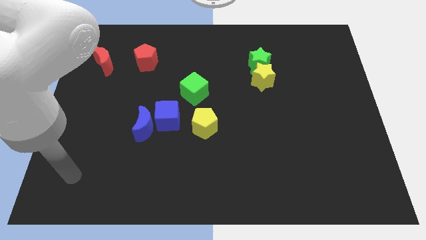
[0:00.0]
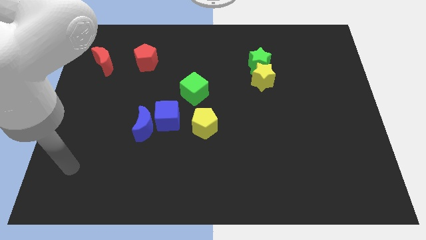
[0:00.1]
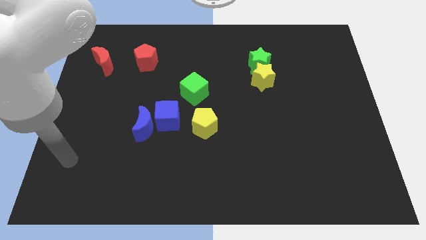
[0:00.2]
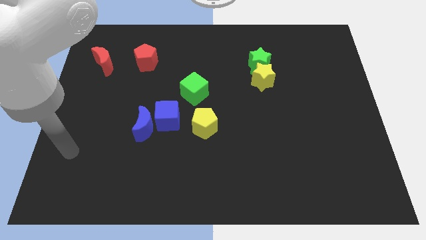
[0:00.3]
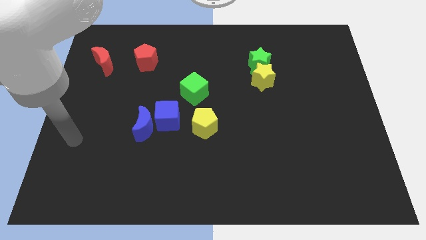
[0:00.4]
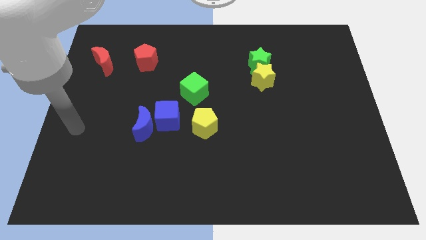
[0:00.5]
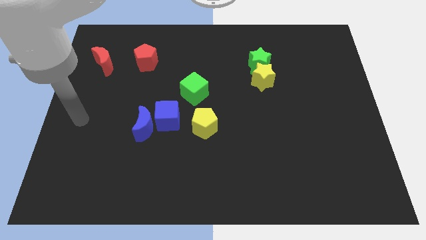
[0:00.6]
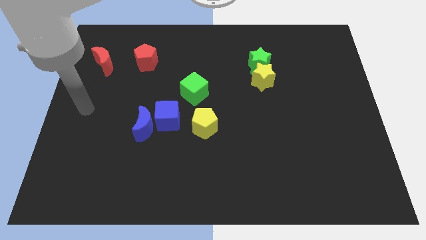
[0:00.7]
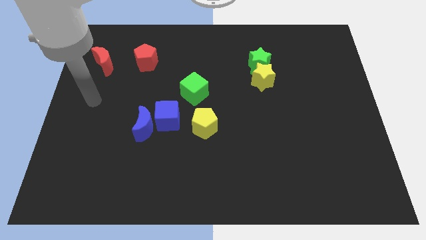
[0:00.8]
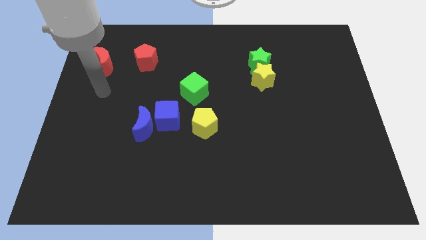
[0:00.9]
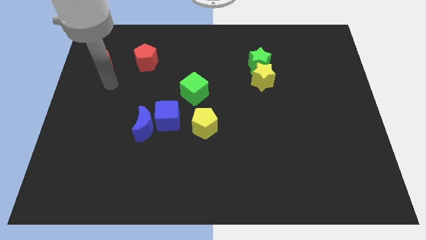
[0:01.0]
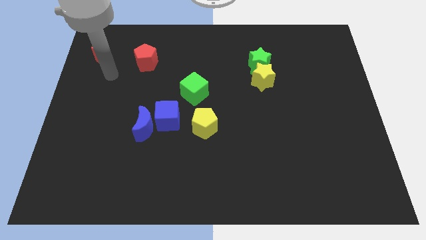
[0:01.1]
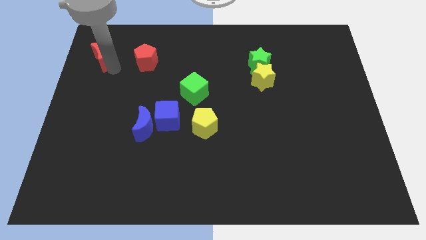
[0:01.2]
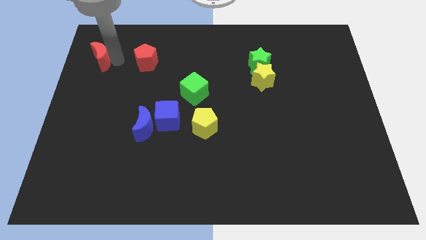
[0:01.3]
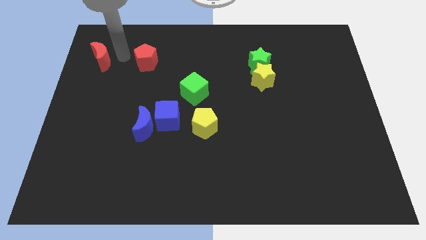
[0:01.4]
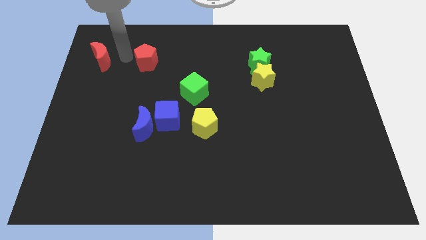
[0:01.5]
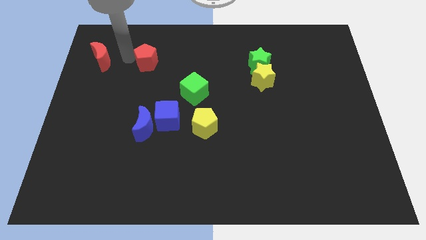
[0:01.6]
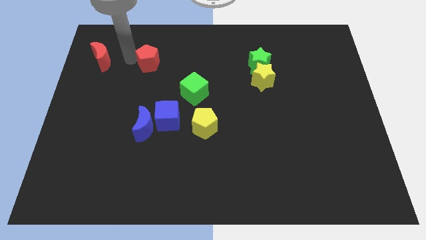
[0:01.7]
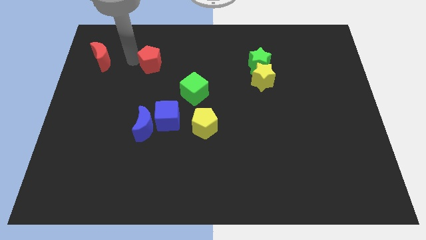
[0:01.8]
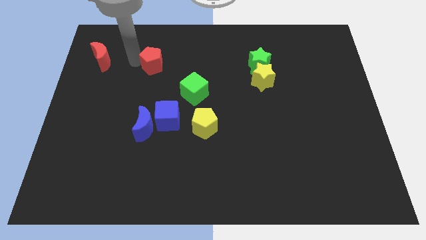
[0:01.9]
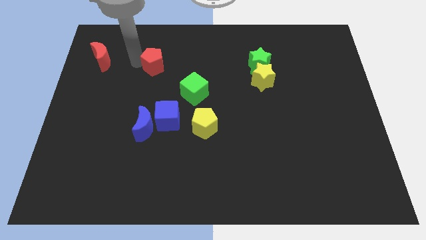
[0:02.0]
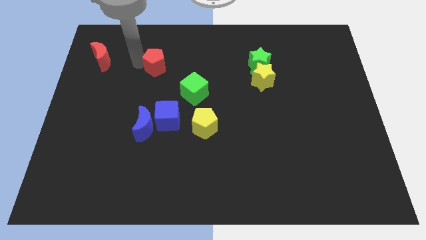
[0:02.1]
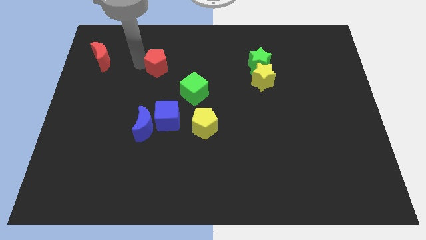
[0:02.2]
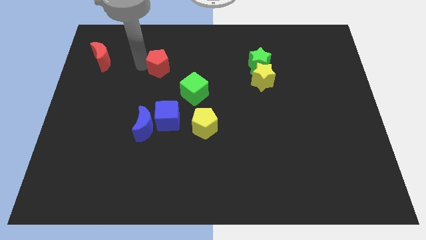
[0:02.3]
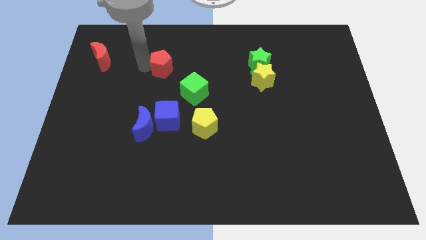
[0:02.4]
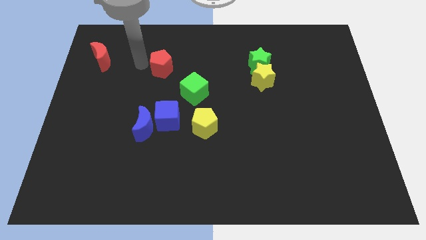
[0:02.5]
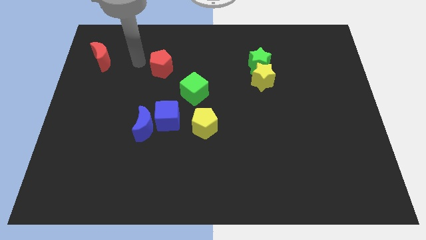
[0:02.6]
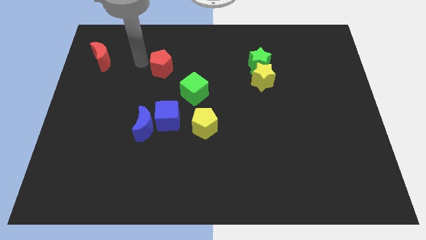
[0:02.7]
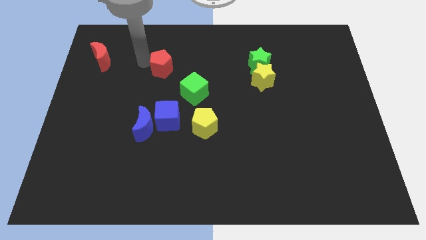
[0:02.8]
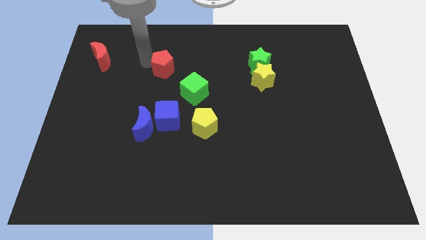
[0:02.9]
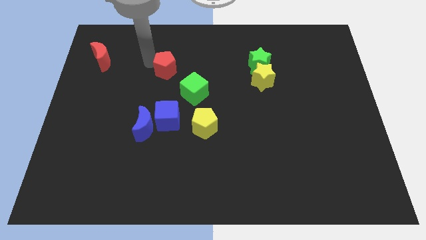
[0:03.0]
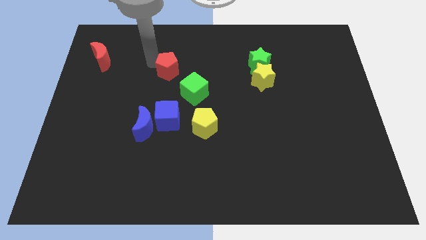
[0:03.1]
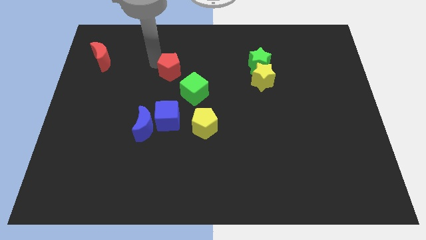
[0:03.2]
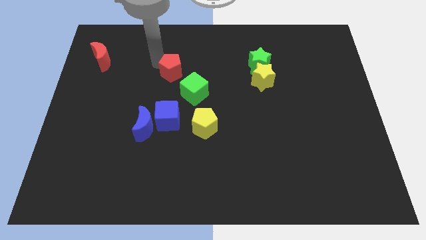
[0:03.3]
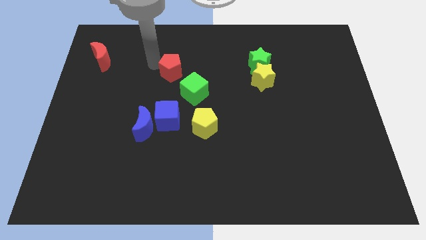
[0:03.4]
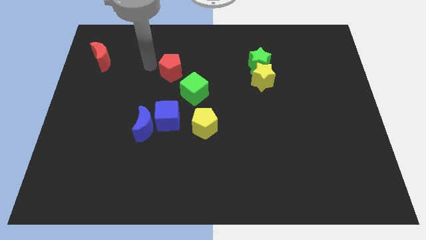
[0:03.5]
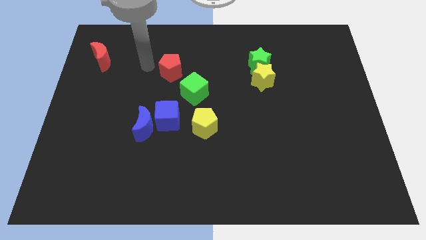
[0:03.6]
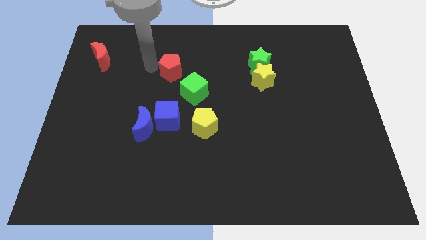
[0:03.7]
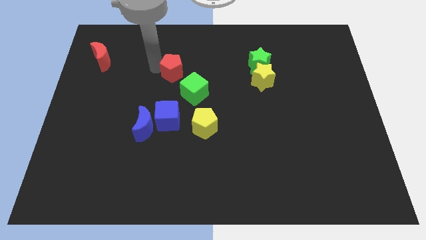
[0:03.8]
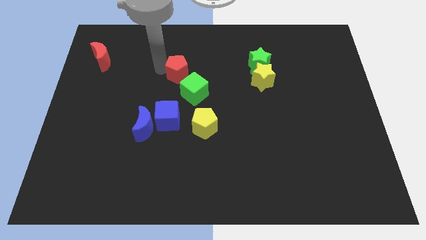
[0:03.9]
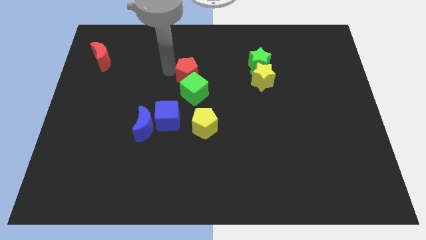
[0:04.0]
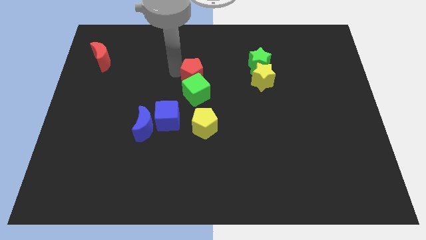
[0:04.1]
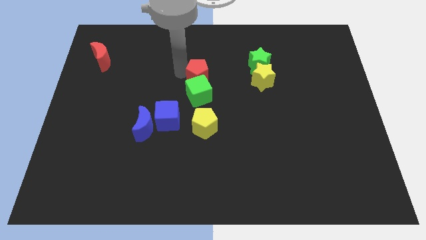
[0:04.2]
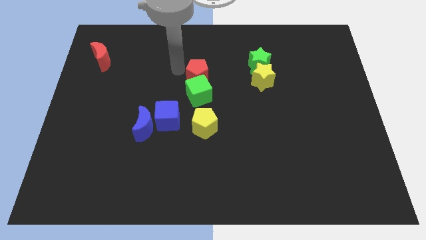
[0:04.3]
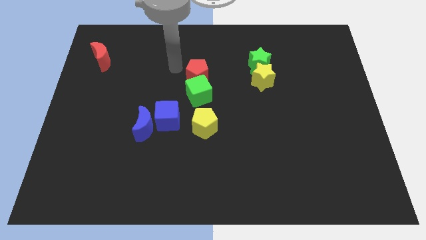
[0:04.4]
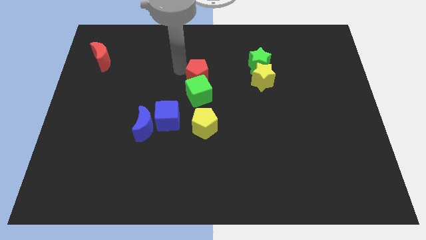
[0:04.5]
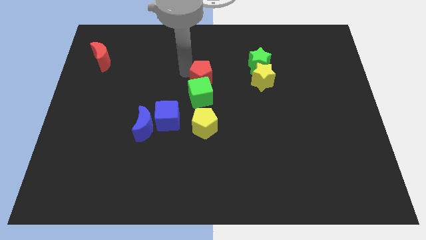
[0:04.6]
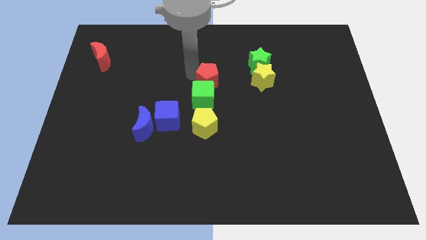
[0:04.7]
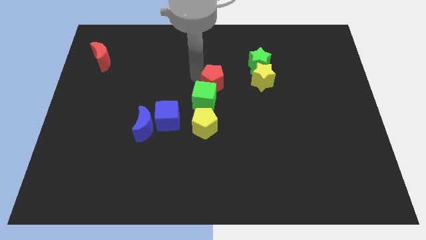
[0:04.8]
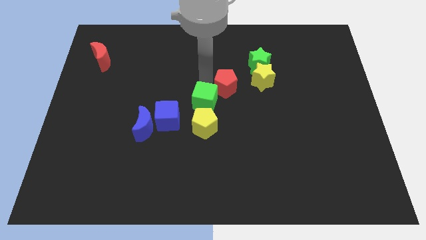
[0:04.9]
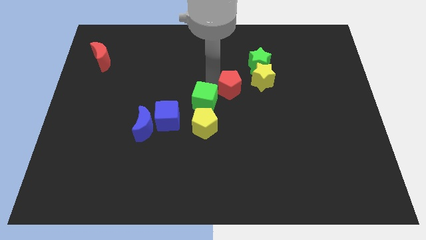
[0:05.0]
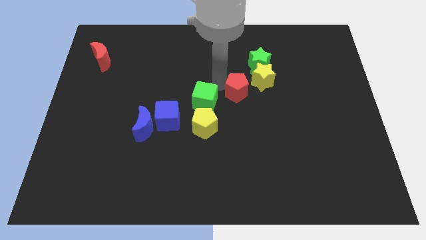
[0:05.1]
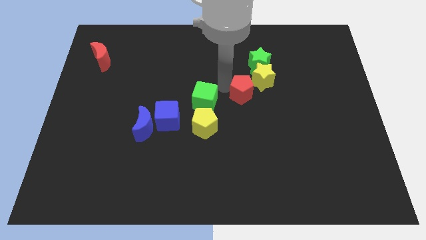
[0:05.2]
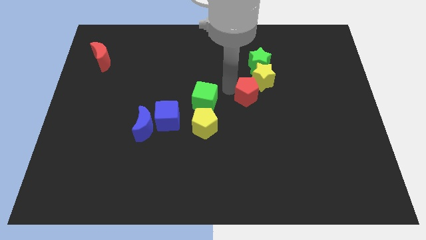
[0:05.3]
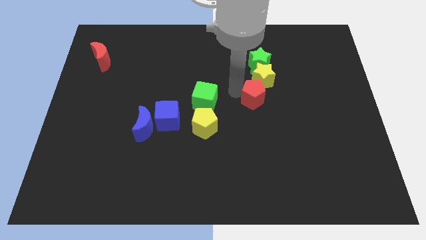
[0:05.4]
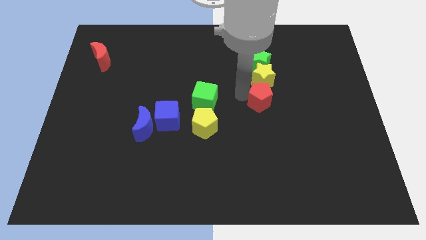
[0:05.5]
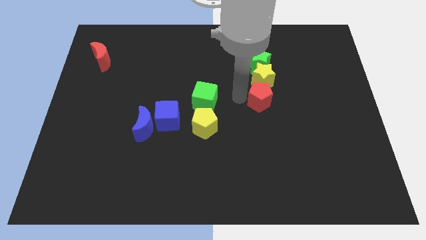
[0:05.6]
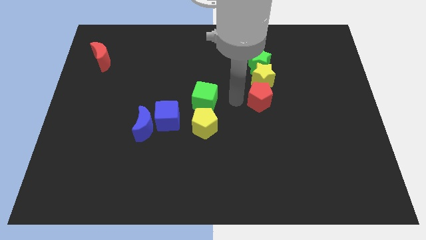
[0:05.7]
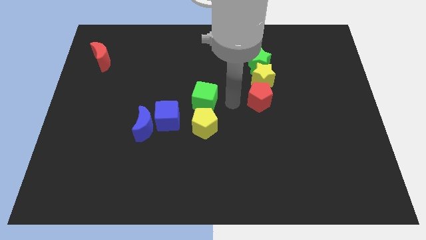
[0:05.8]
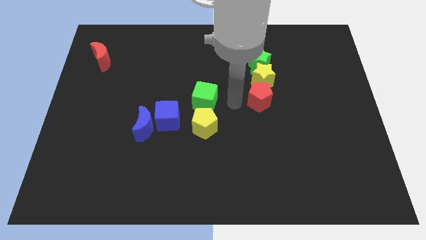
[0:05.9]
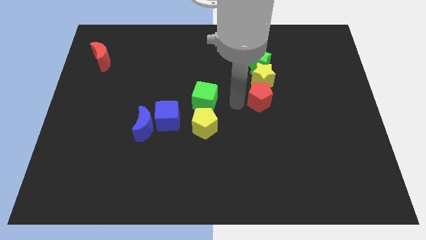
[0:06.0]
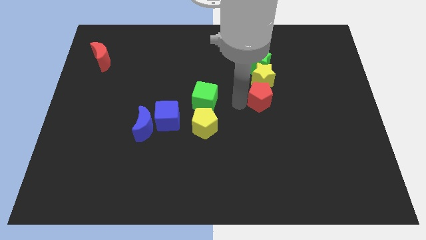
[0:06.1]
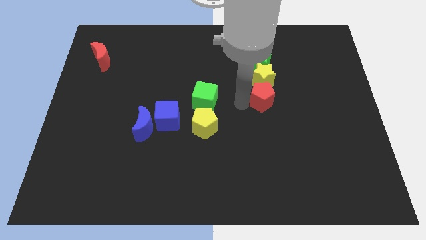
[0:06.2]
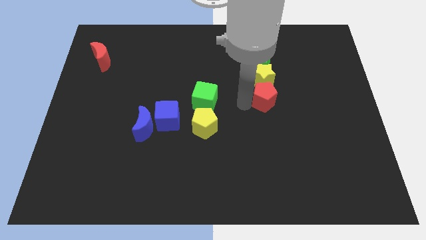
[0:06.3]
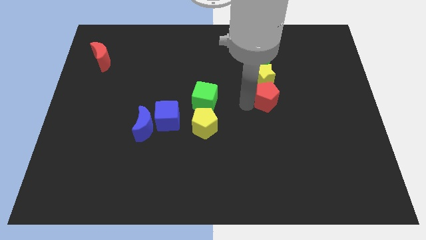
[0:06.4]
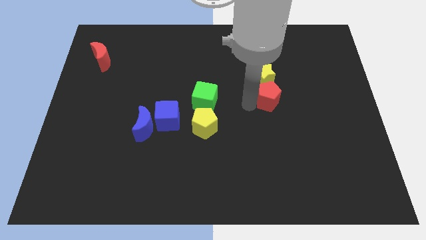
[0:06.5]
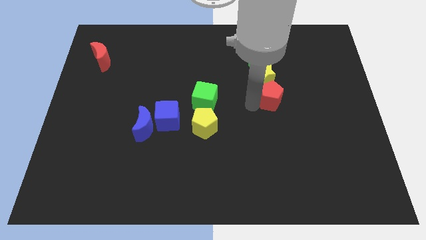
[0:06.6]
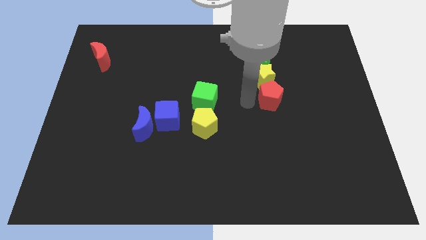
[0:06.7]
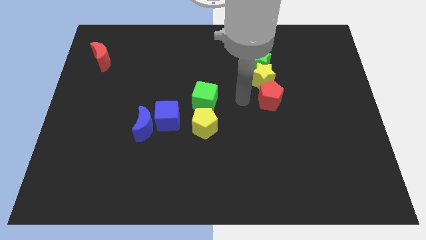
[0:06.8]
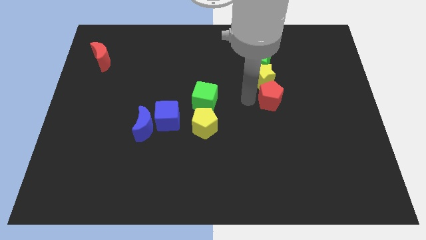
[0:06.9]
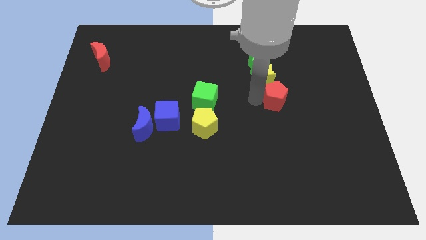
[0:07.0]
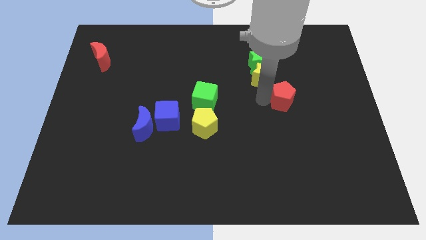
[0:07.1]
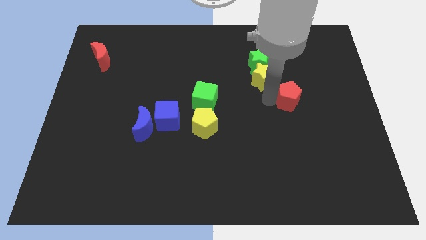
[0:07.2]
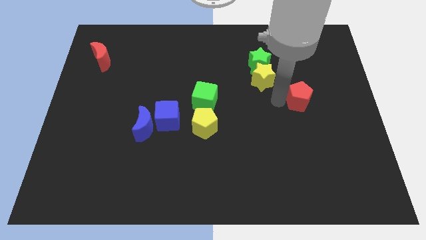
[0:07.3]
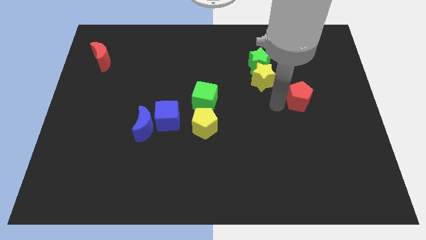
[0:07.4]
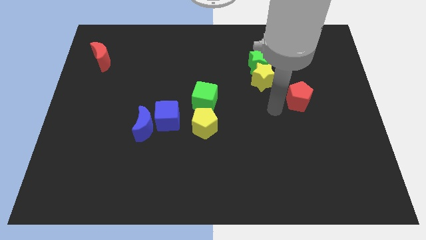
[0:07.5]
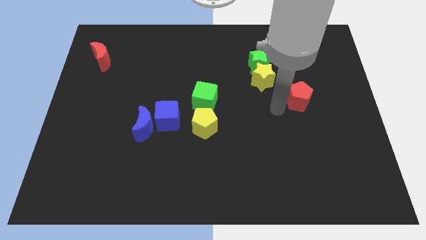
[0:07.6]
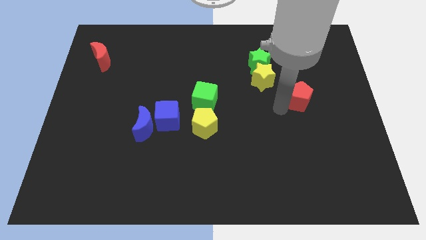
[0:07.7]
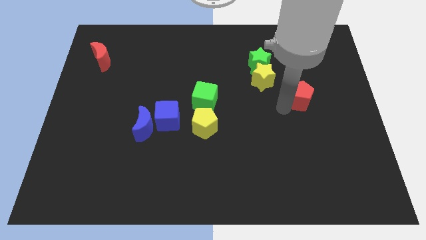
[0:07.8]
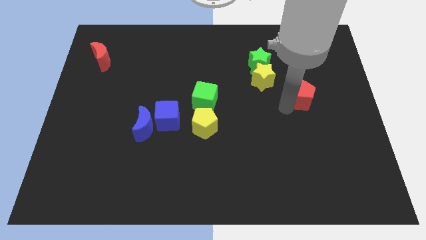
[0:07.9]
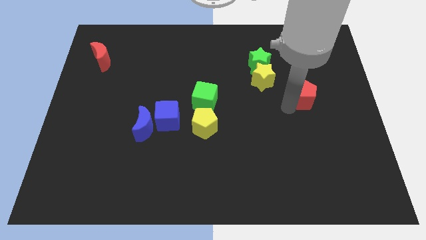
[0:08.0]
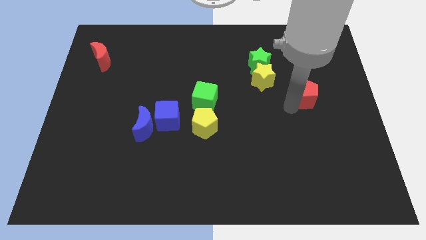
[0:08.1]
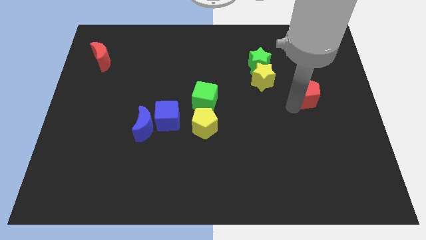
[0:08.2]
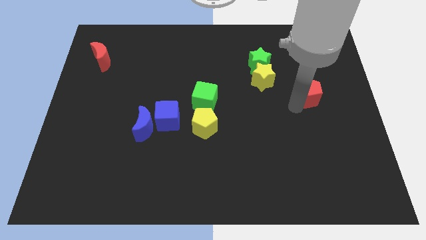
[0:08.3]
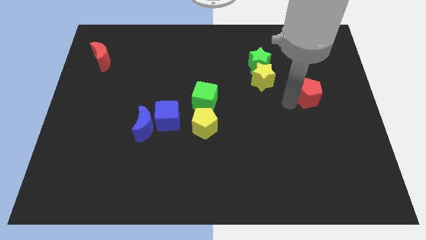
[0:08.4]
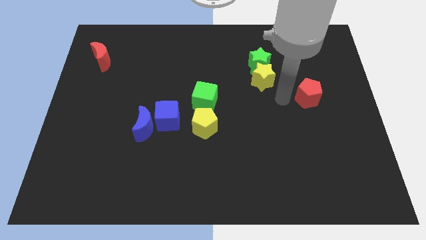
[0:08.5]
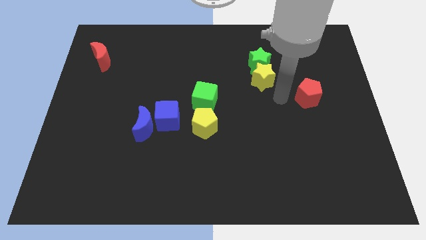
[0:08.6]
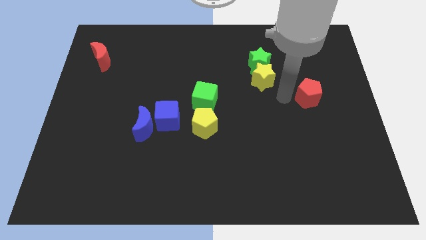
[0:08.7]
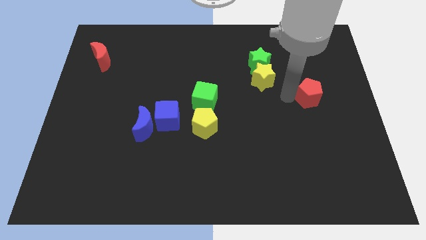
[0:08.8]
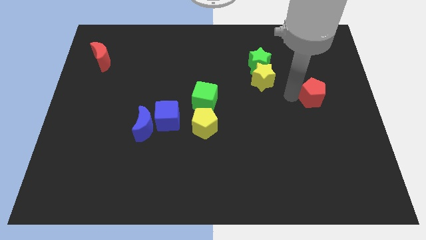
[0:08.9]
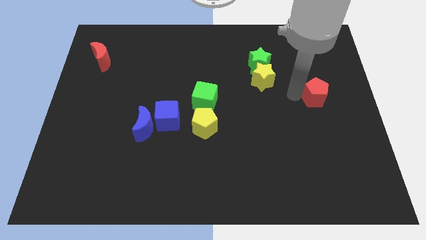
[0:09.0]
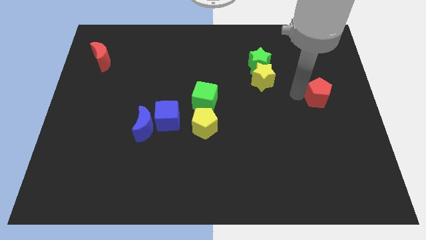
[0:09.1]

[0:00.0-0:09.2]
put the red pentagon to the center right
